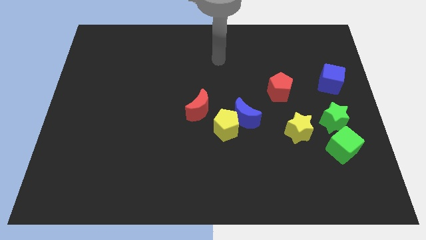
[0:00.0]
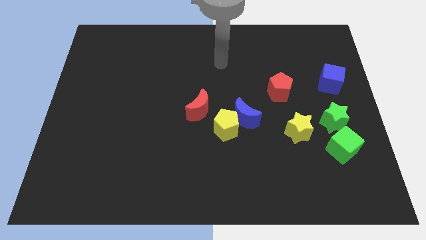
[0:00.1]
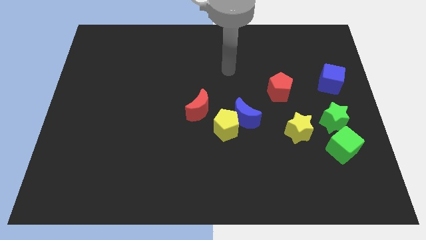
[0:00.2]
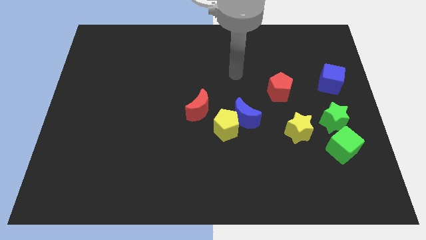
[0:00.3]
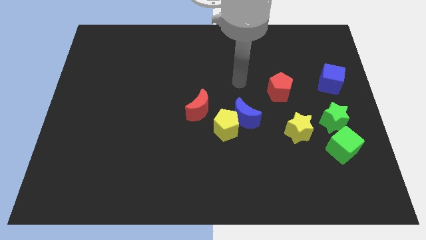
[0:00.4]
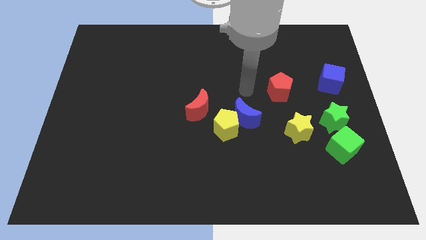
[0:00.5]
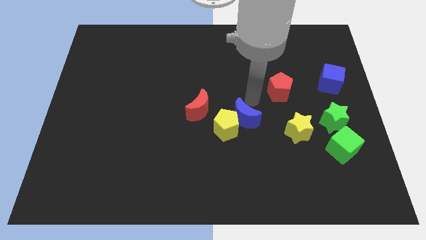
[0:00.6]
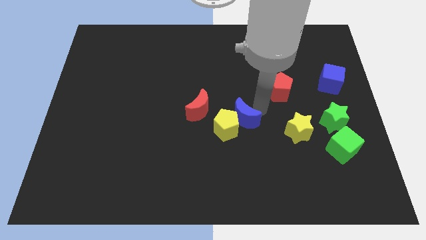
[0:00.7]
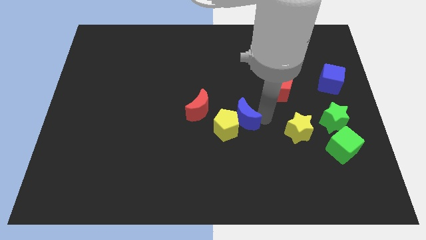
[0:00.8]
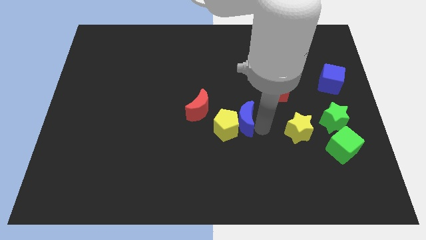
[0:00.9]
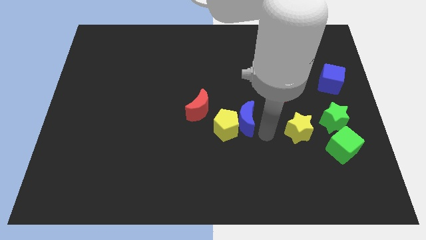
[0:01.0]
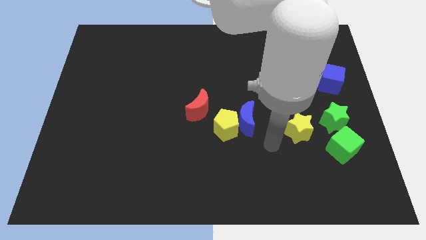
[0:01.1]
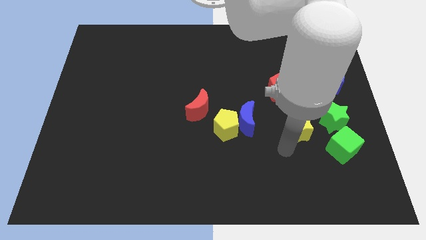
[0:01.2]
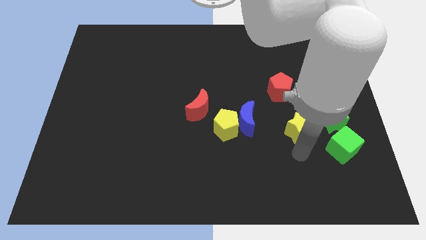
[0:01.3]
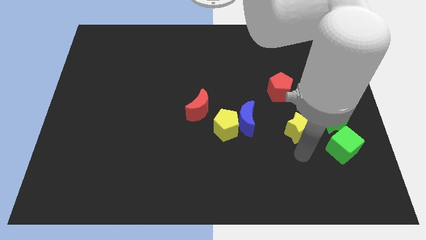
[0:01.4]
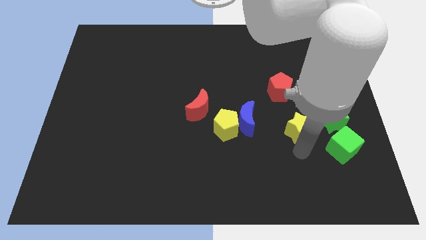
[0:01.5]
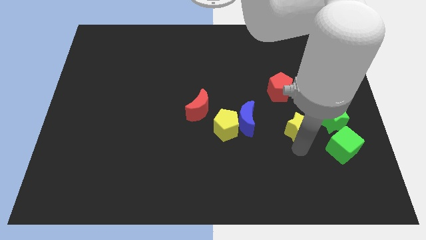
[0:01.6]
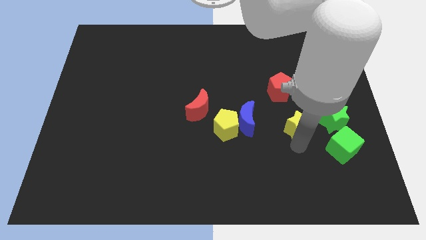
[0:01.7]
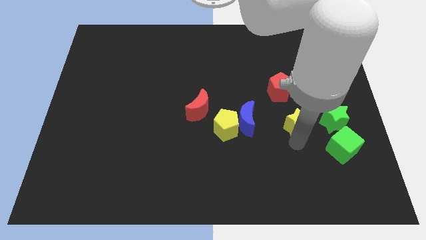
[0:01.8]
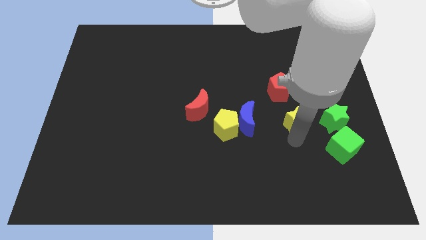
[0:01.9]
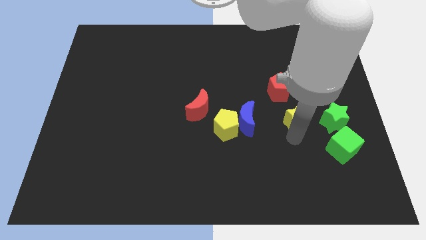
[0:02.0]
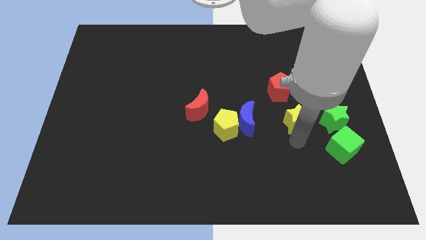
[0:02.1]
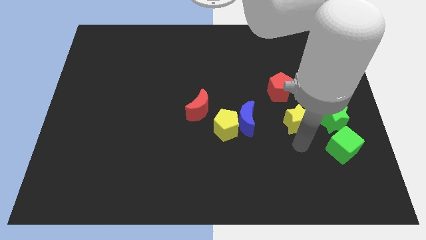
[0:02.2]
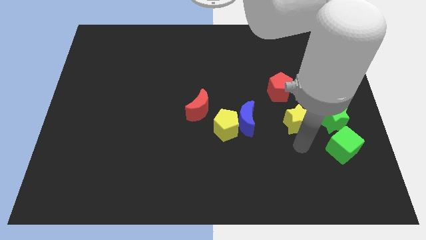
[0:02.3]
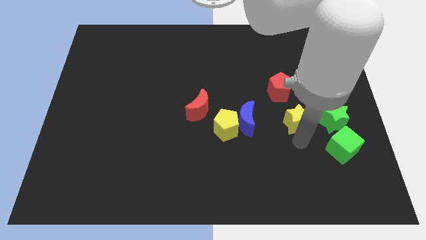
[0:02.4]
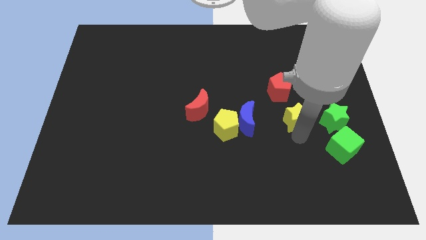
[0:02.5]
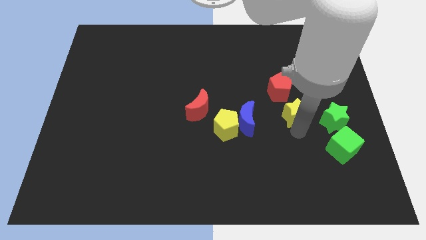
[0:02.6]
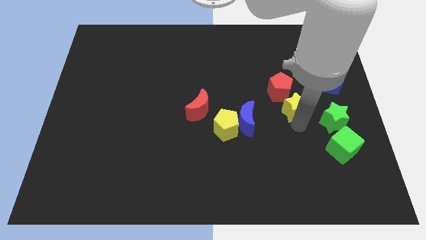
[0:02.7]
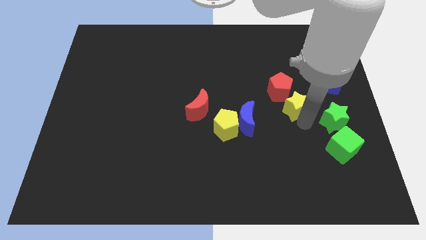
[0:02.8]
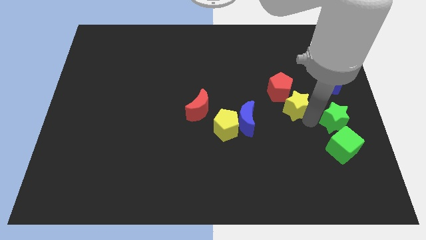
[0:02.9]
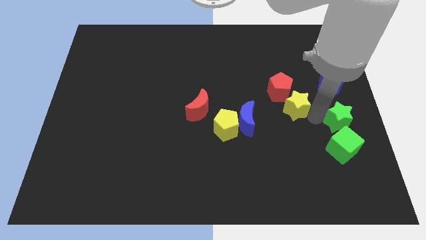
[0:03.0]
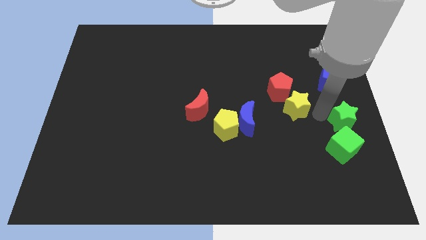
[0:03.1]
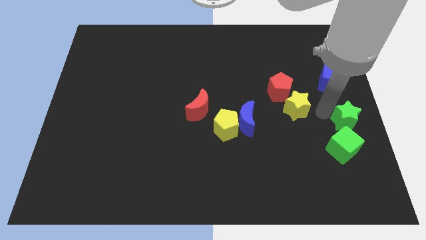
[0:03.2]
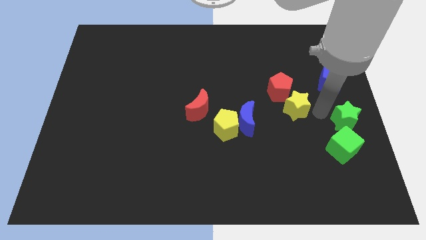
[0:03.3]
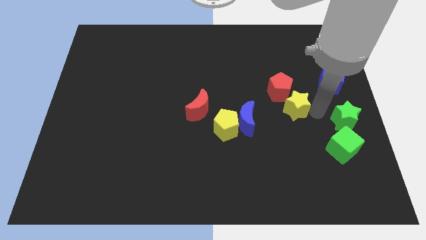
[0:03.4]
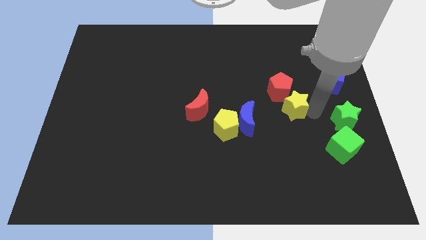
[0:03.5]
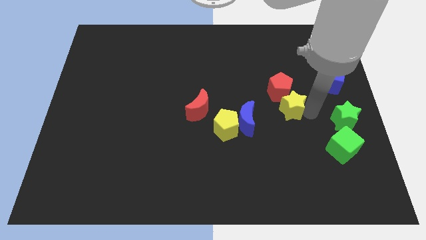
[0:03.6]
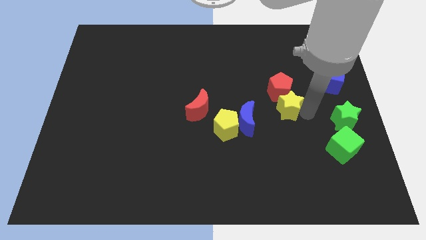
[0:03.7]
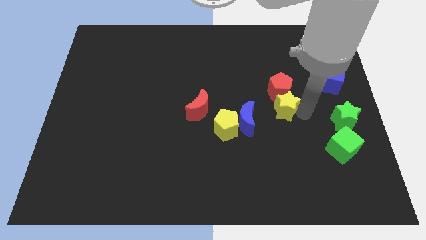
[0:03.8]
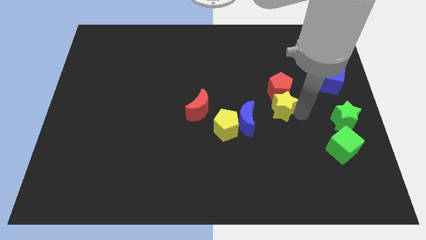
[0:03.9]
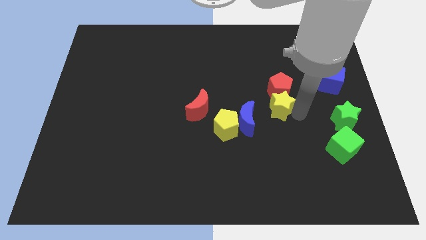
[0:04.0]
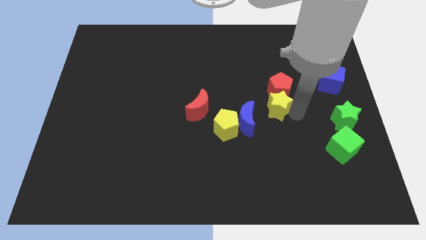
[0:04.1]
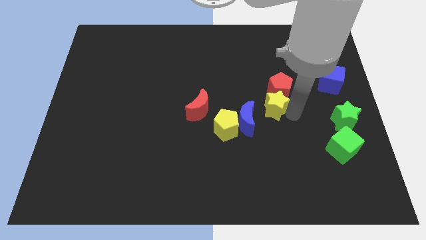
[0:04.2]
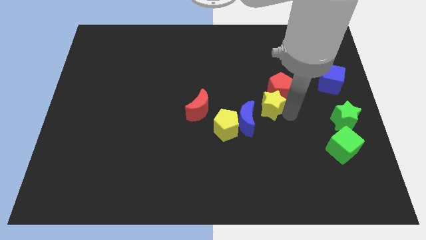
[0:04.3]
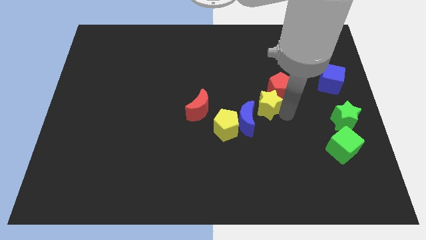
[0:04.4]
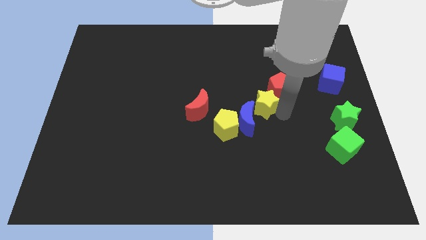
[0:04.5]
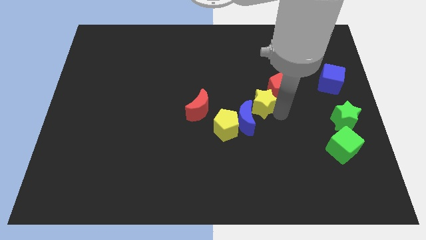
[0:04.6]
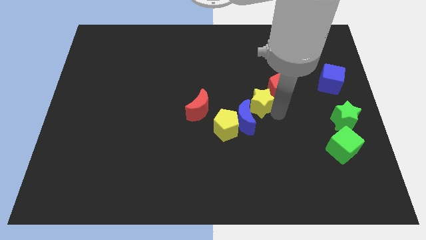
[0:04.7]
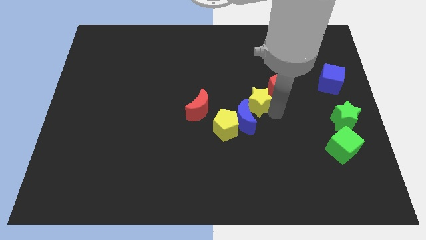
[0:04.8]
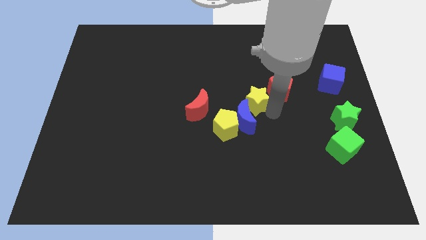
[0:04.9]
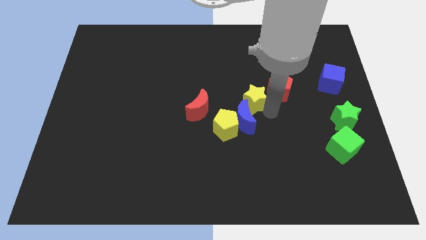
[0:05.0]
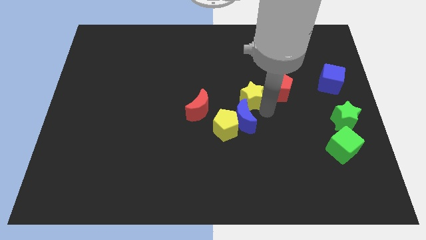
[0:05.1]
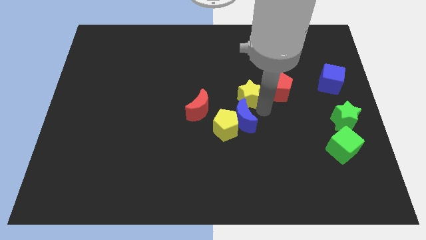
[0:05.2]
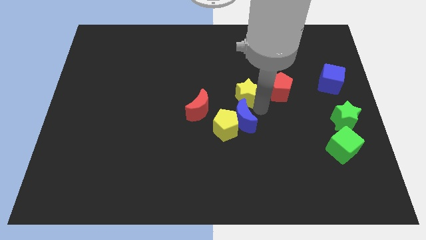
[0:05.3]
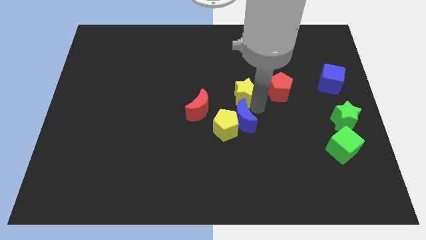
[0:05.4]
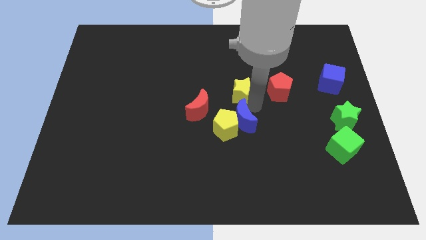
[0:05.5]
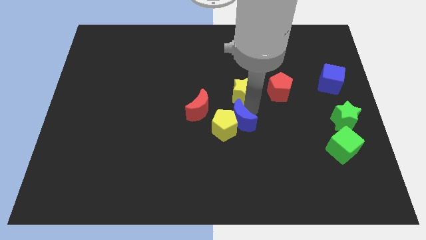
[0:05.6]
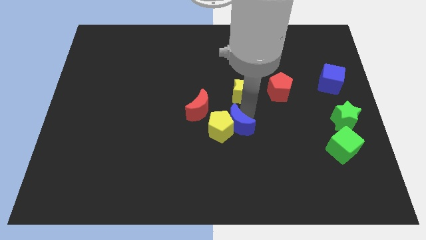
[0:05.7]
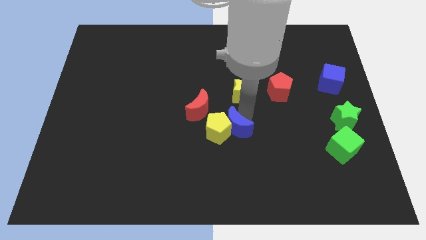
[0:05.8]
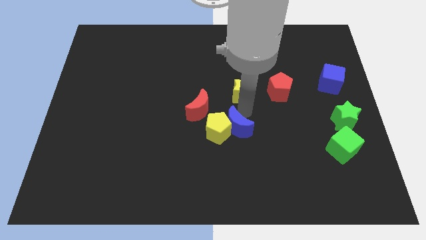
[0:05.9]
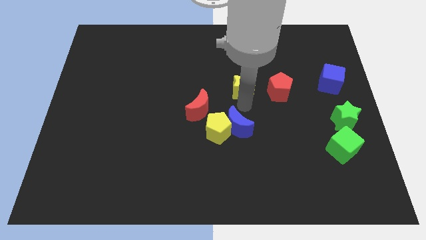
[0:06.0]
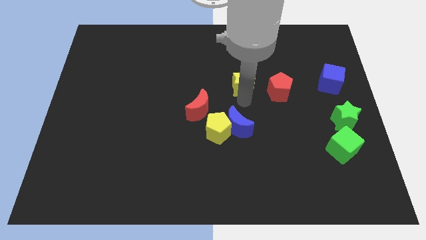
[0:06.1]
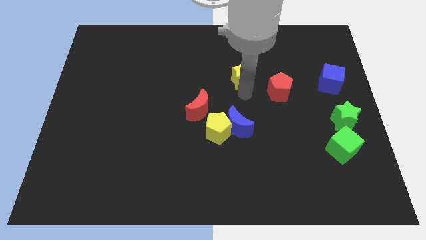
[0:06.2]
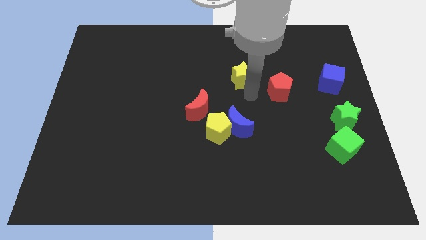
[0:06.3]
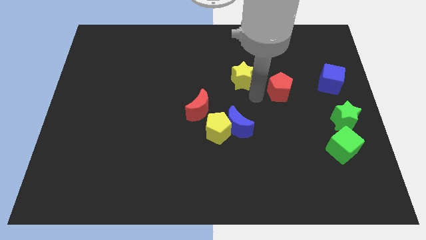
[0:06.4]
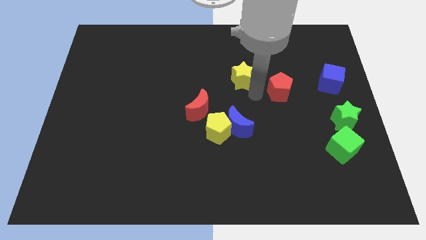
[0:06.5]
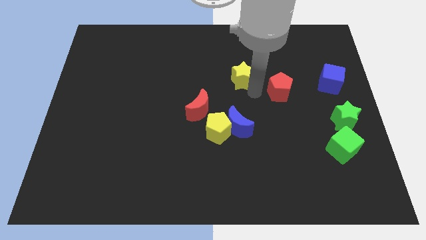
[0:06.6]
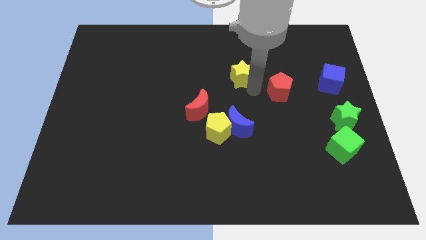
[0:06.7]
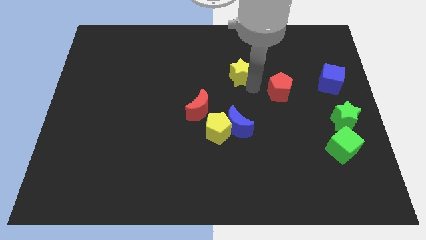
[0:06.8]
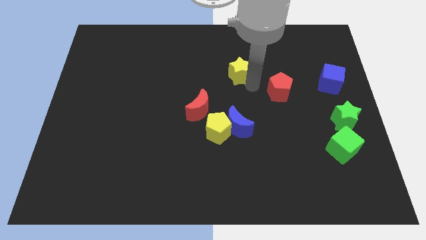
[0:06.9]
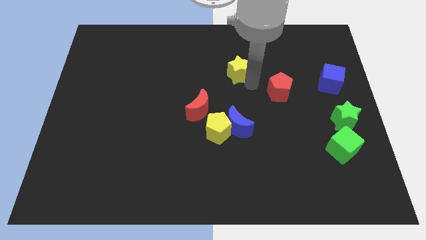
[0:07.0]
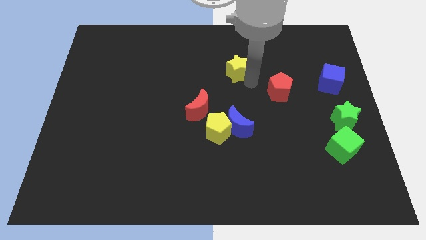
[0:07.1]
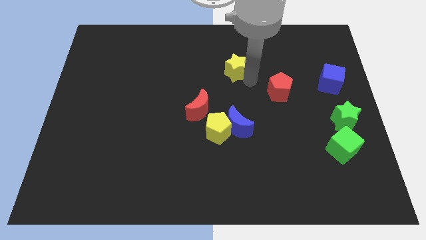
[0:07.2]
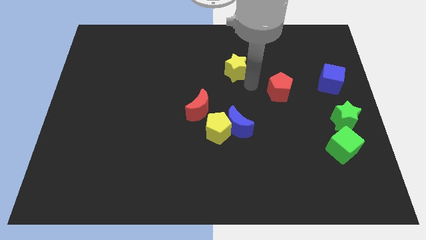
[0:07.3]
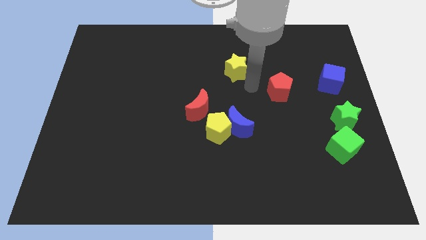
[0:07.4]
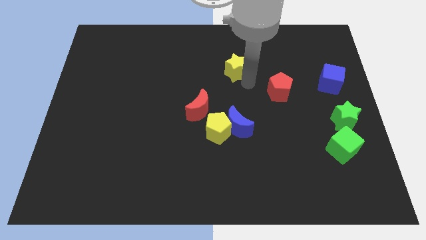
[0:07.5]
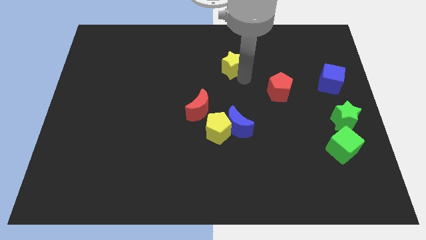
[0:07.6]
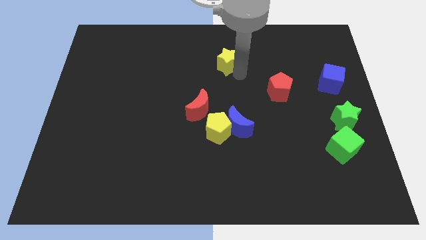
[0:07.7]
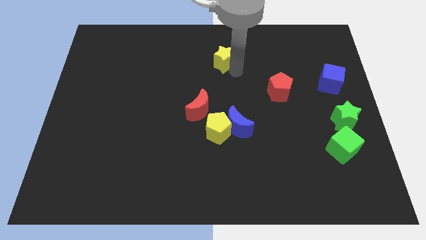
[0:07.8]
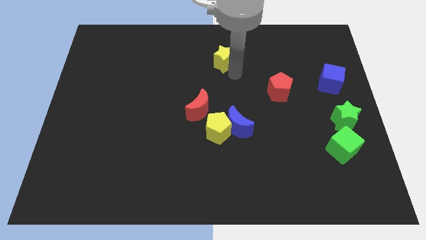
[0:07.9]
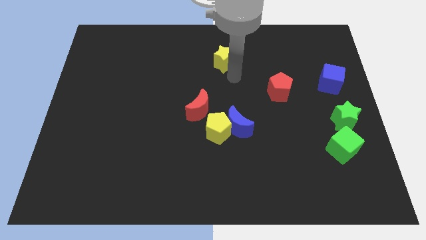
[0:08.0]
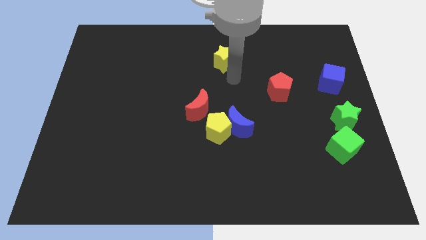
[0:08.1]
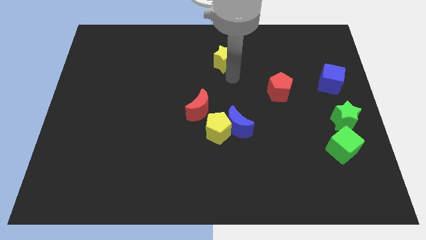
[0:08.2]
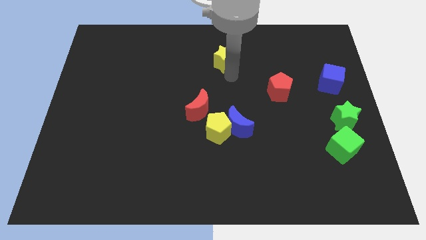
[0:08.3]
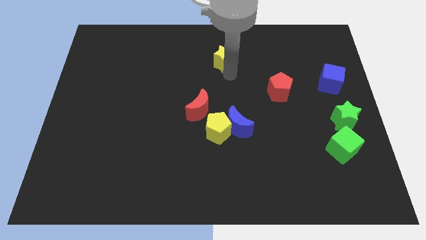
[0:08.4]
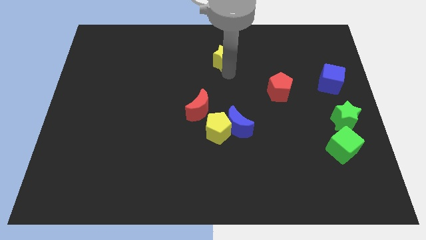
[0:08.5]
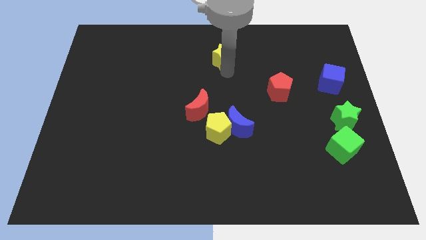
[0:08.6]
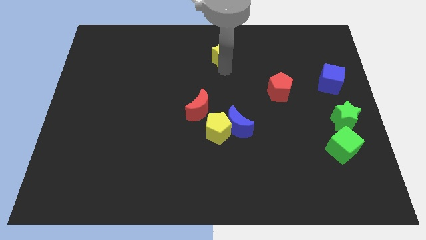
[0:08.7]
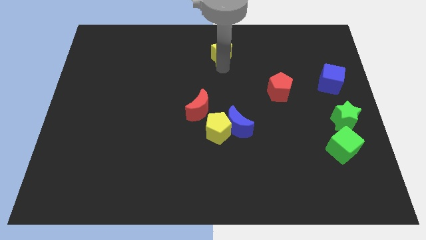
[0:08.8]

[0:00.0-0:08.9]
slide the yellow star to the top
